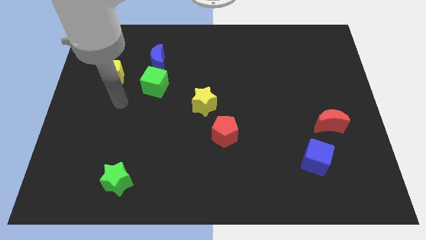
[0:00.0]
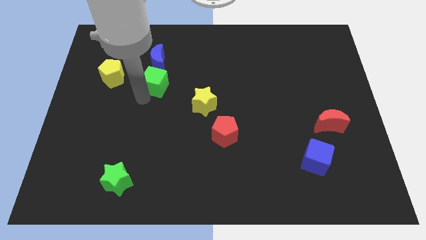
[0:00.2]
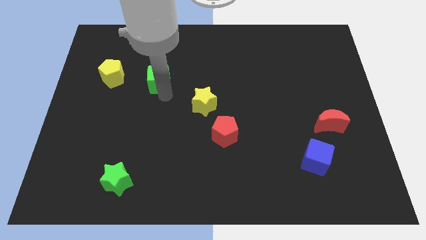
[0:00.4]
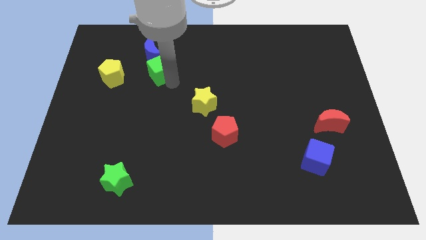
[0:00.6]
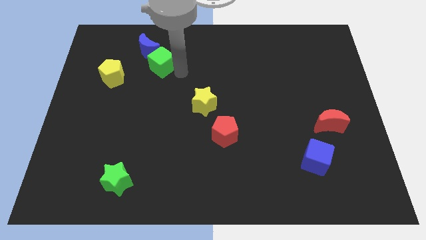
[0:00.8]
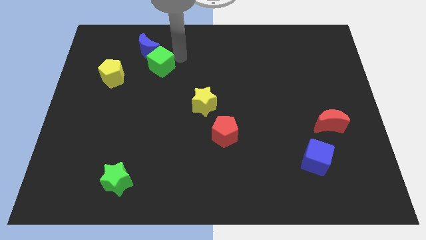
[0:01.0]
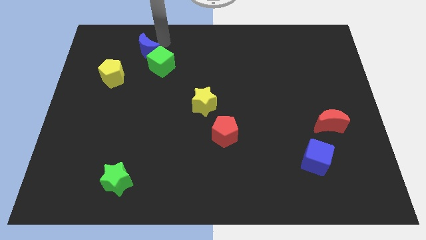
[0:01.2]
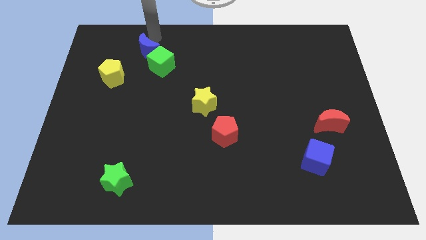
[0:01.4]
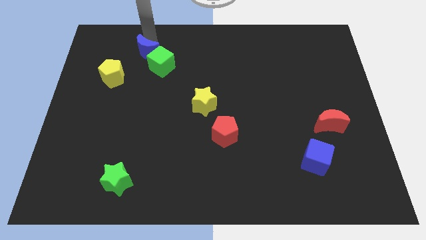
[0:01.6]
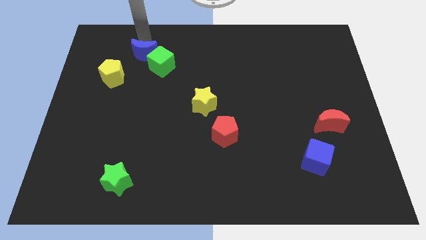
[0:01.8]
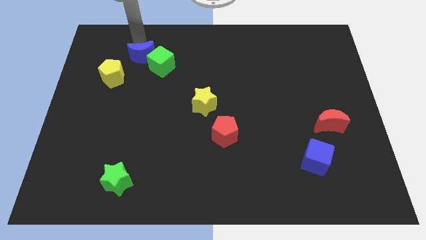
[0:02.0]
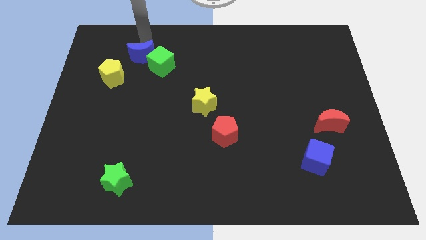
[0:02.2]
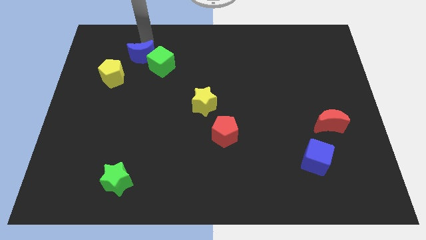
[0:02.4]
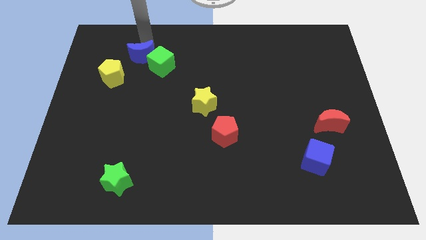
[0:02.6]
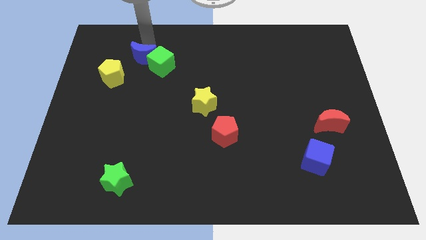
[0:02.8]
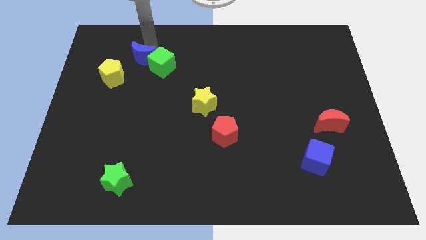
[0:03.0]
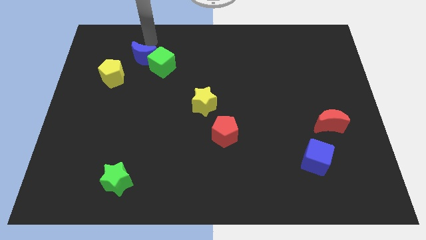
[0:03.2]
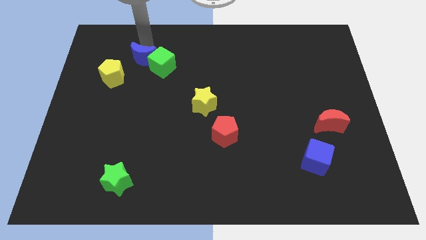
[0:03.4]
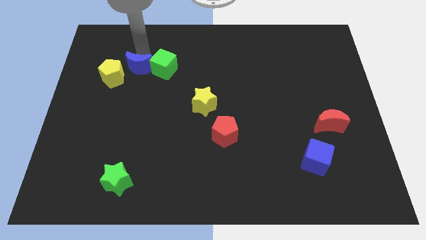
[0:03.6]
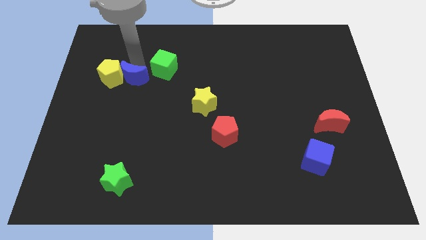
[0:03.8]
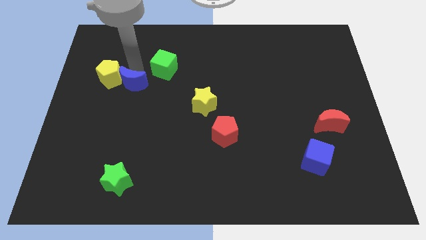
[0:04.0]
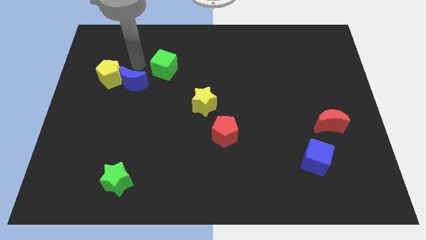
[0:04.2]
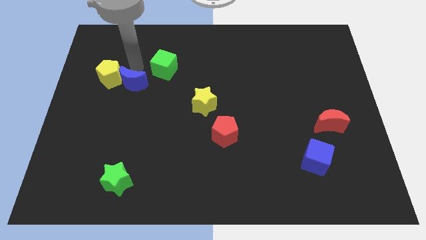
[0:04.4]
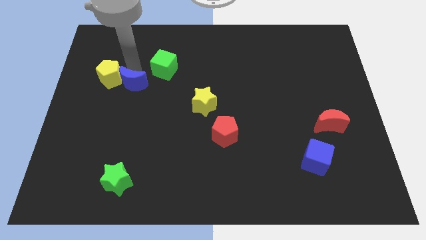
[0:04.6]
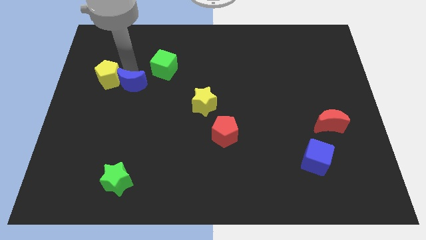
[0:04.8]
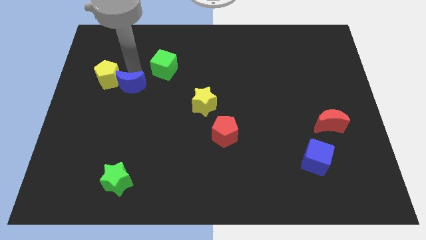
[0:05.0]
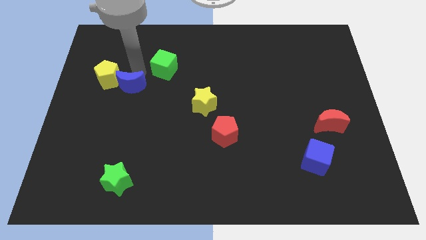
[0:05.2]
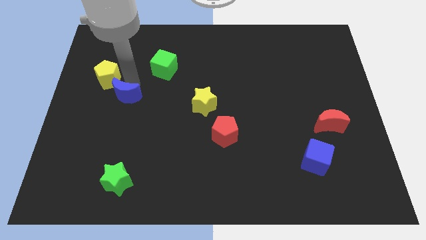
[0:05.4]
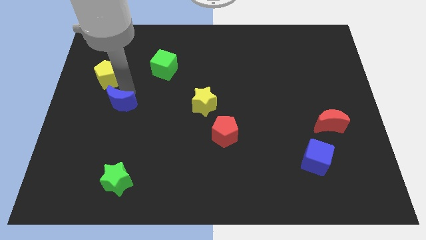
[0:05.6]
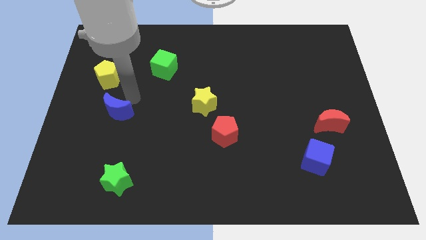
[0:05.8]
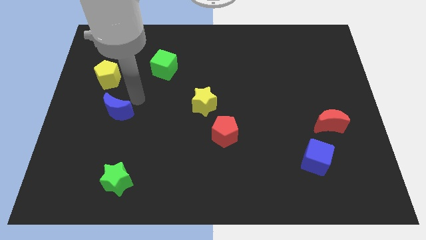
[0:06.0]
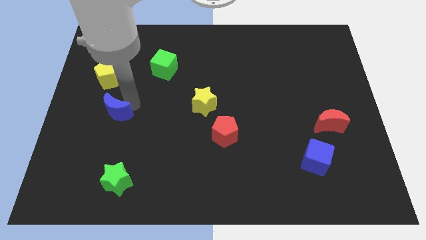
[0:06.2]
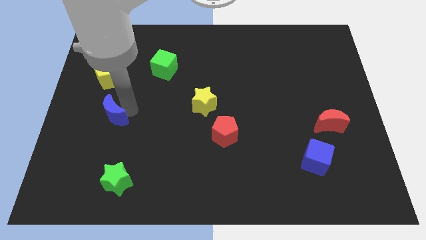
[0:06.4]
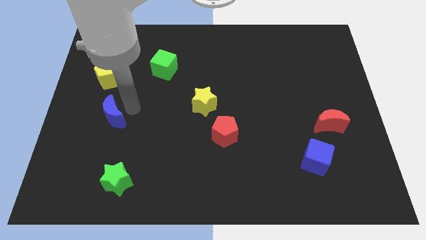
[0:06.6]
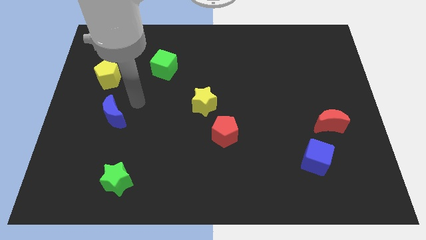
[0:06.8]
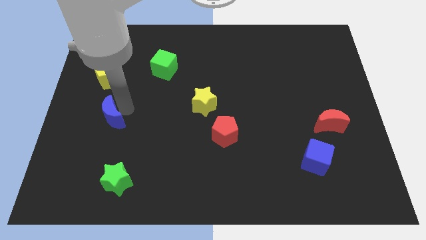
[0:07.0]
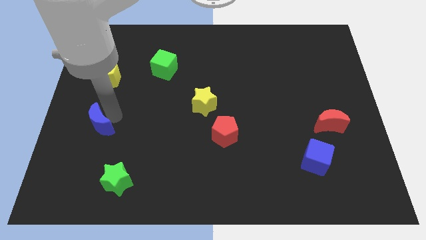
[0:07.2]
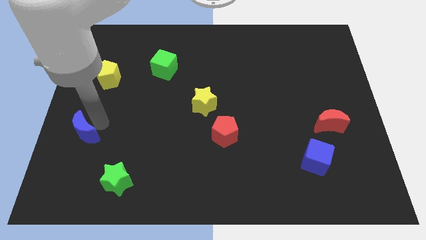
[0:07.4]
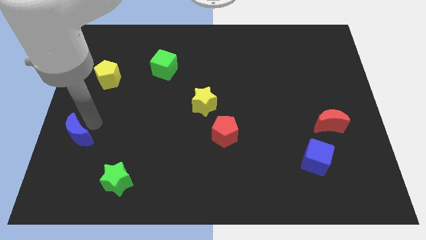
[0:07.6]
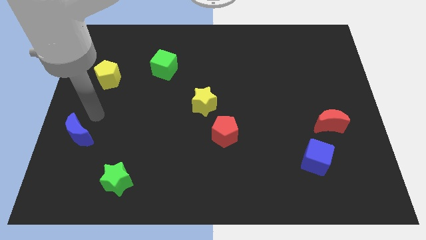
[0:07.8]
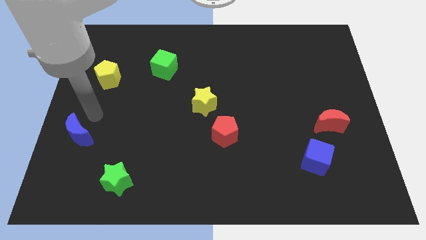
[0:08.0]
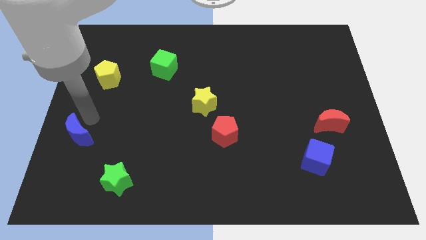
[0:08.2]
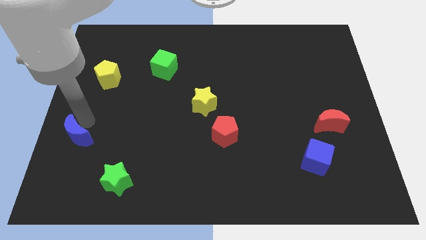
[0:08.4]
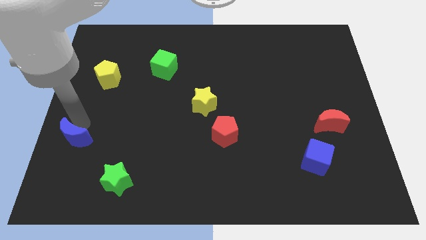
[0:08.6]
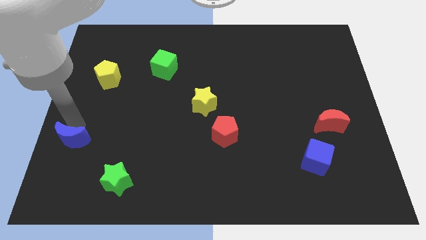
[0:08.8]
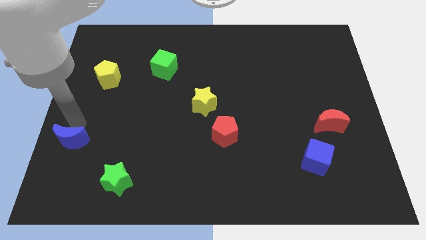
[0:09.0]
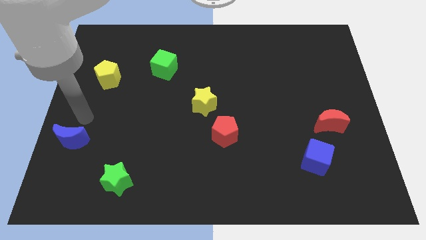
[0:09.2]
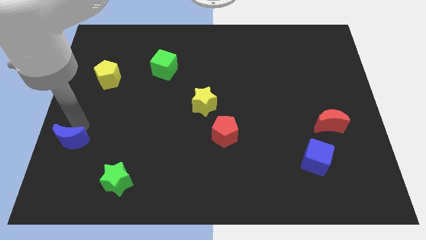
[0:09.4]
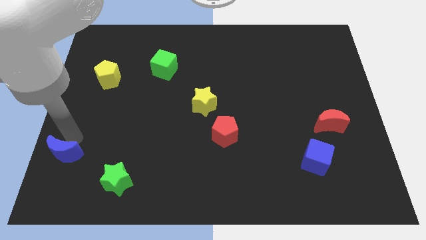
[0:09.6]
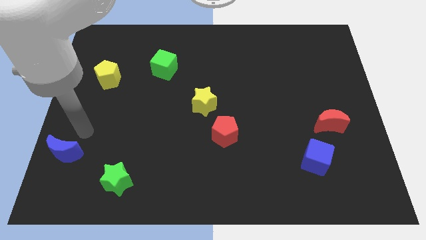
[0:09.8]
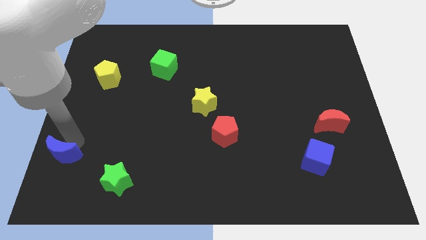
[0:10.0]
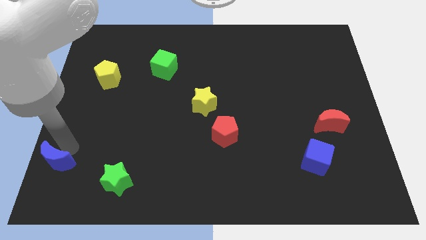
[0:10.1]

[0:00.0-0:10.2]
push the blue moon to the lower left corner

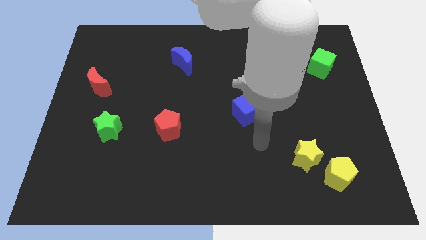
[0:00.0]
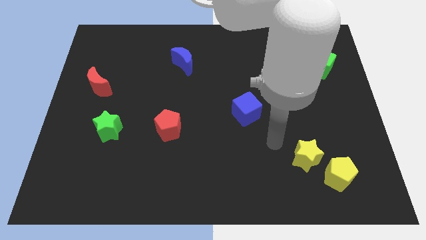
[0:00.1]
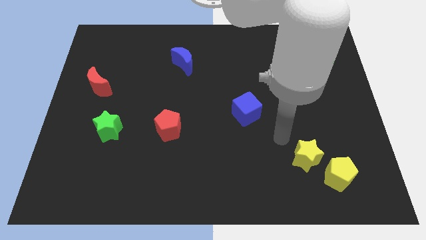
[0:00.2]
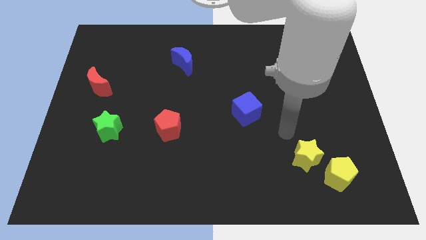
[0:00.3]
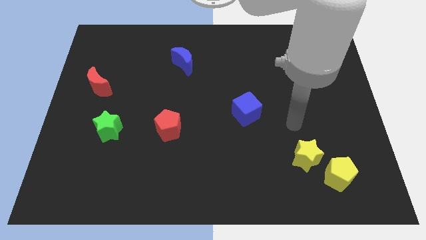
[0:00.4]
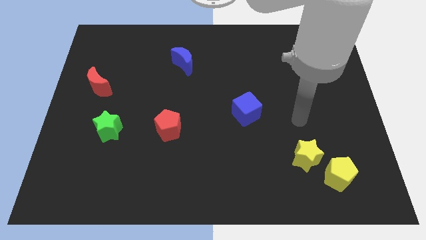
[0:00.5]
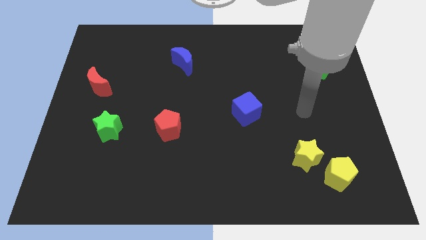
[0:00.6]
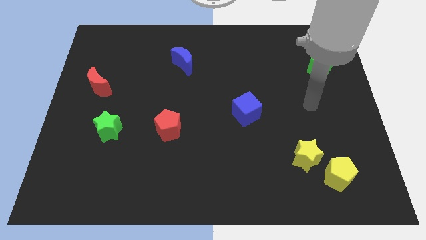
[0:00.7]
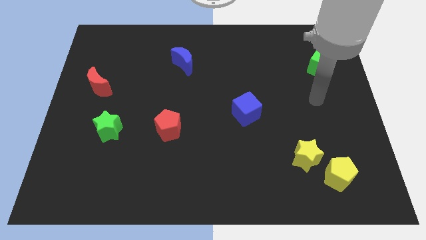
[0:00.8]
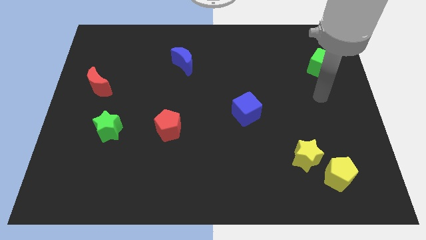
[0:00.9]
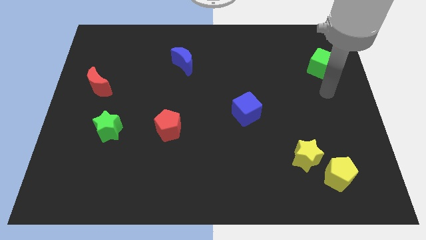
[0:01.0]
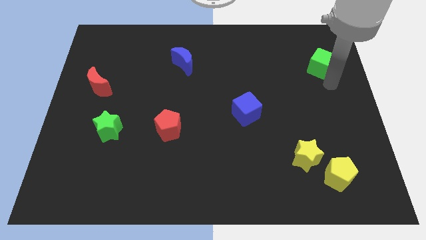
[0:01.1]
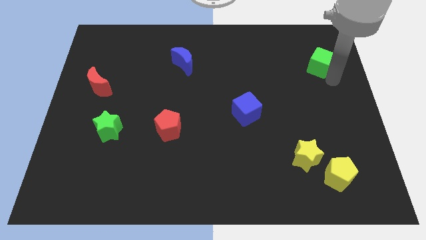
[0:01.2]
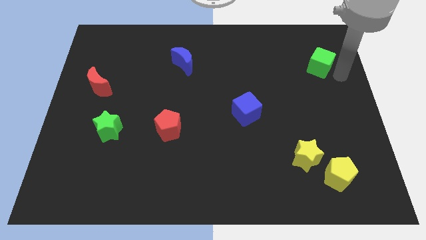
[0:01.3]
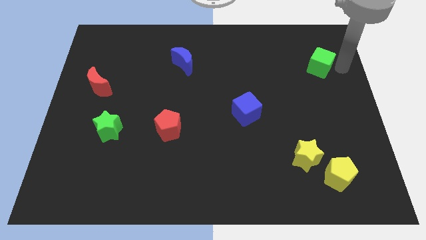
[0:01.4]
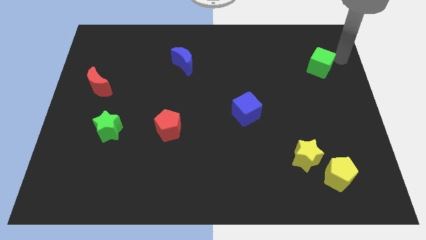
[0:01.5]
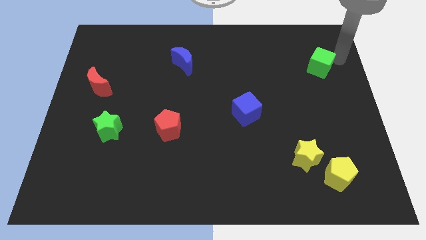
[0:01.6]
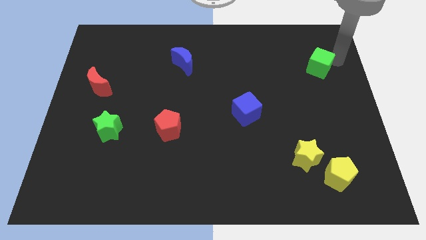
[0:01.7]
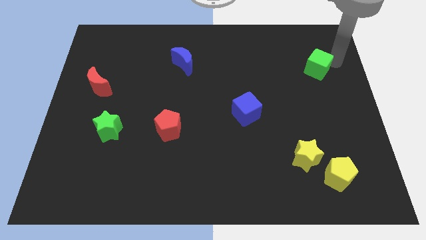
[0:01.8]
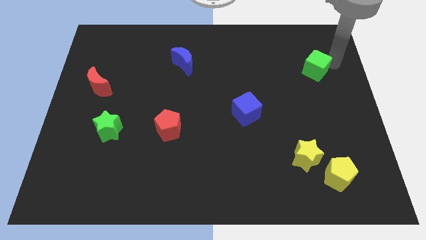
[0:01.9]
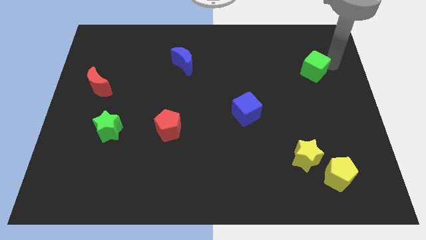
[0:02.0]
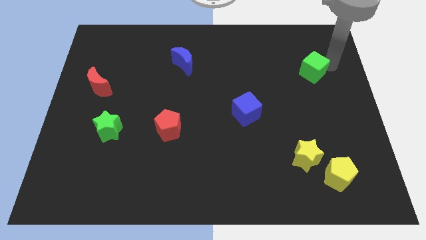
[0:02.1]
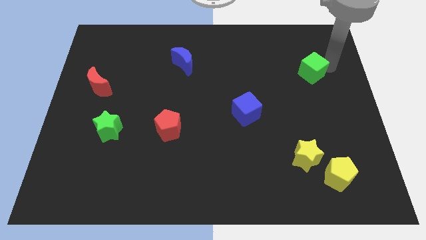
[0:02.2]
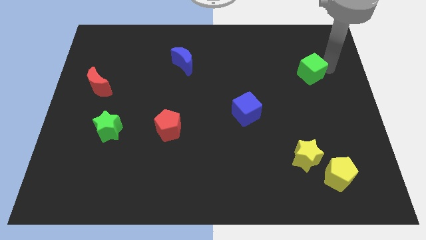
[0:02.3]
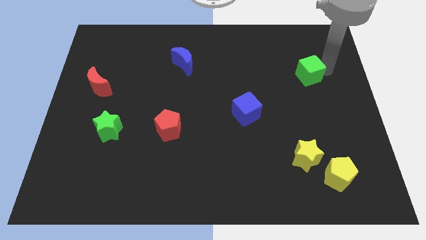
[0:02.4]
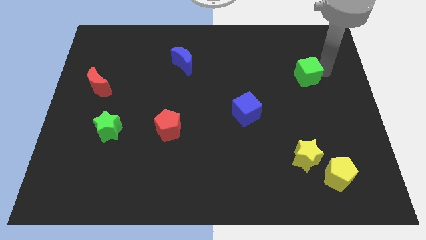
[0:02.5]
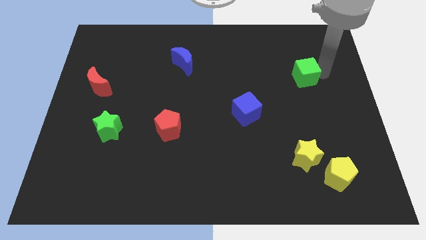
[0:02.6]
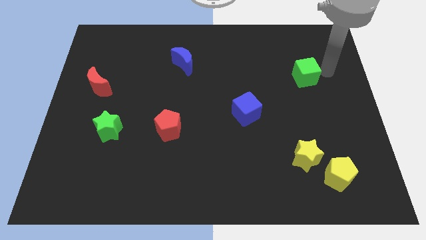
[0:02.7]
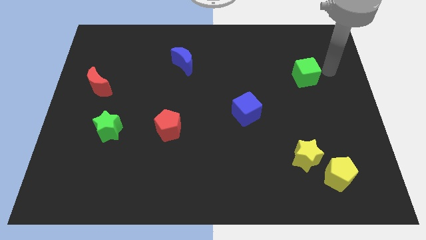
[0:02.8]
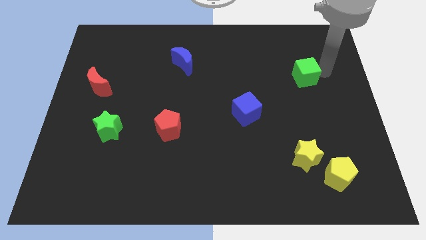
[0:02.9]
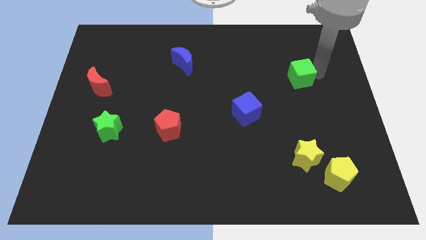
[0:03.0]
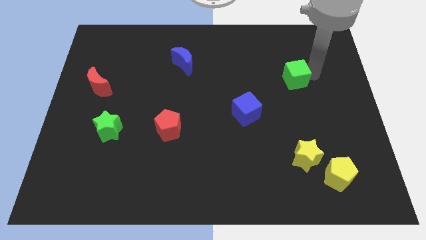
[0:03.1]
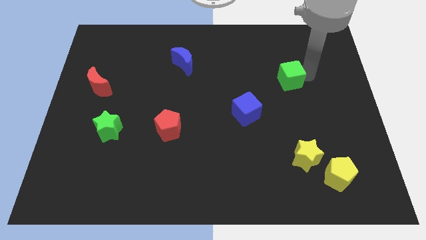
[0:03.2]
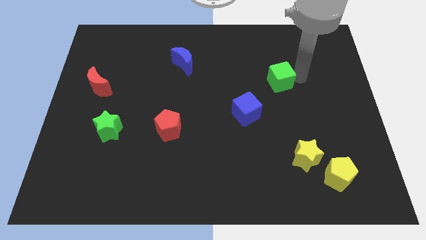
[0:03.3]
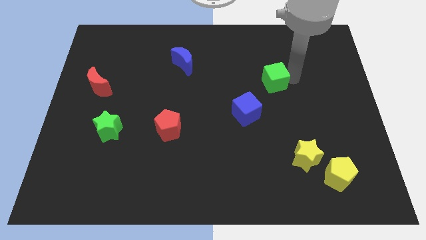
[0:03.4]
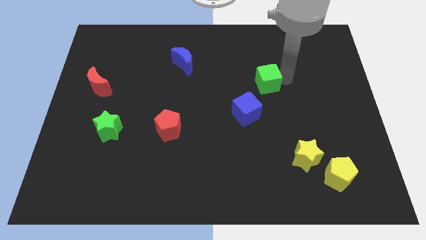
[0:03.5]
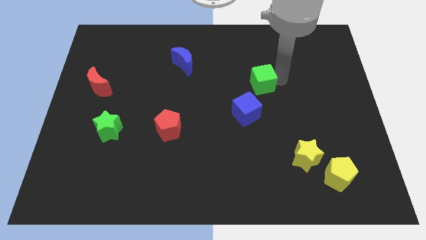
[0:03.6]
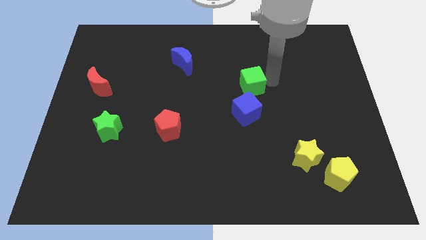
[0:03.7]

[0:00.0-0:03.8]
slide the green cube to the middle of the board
